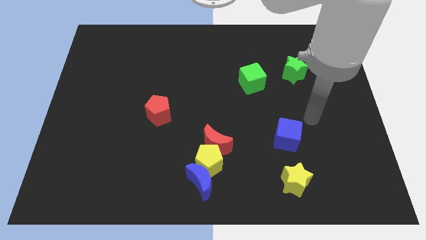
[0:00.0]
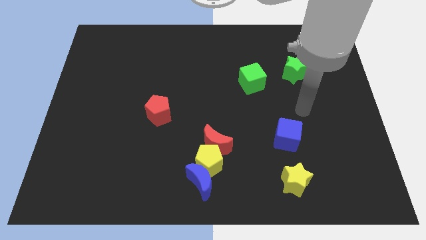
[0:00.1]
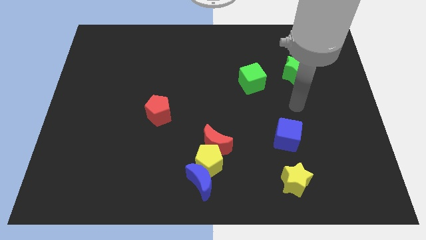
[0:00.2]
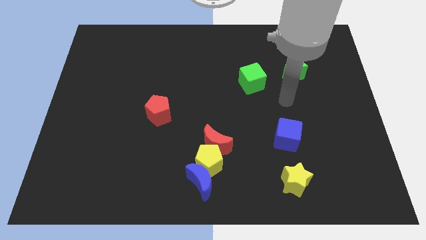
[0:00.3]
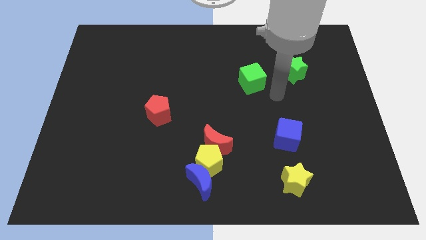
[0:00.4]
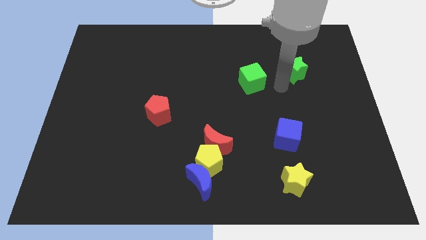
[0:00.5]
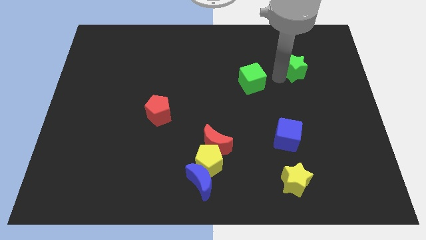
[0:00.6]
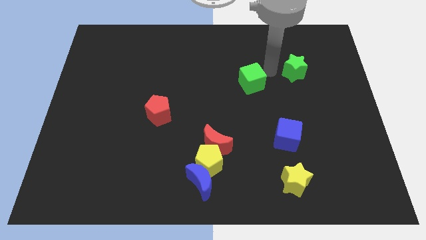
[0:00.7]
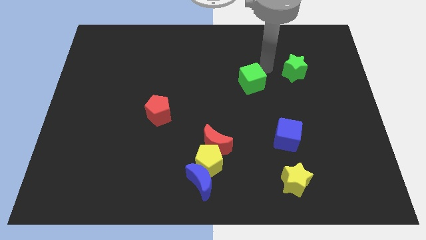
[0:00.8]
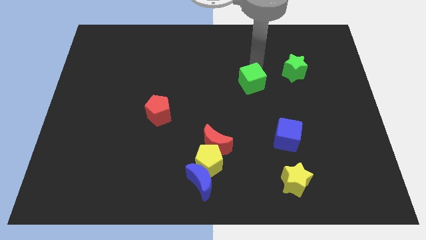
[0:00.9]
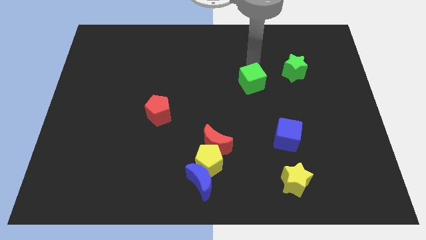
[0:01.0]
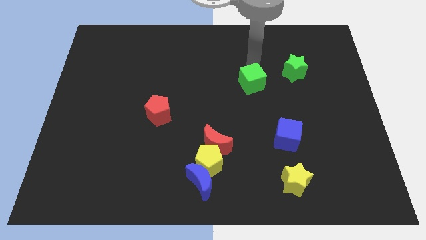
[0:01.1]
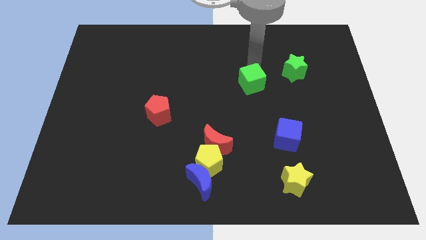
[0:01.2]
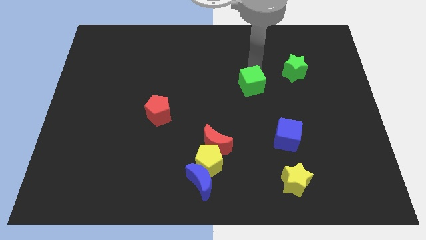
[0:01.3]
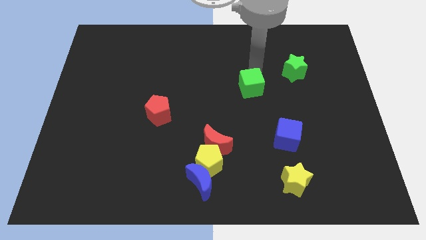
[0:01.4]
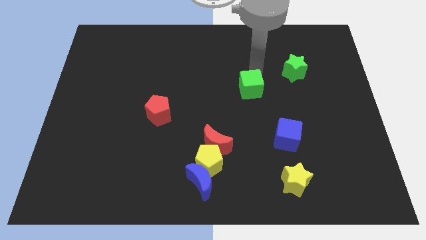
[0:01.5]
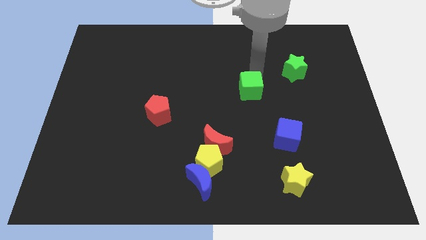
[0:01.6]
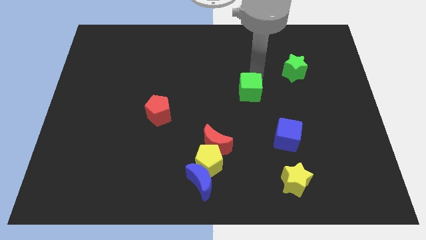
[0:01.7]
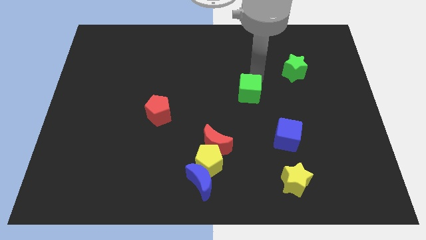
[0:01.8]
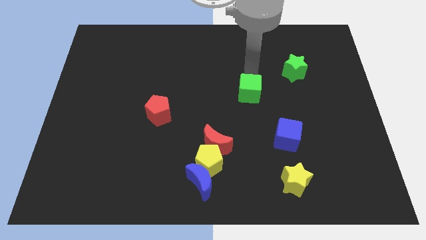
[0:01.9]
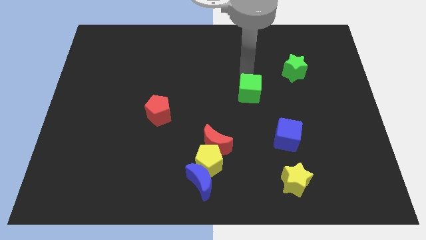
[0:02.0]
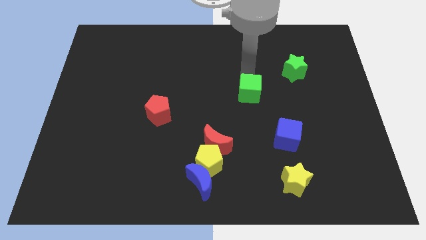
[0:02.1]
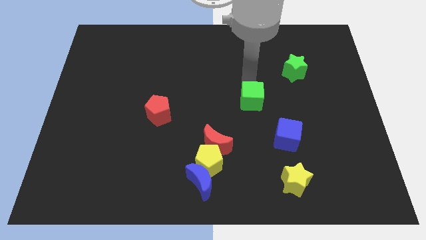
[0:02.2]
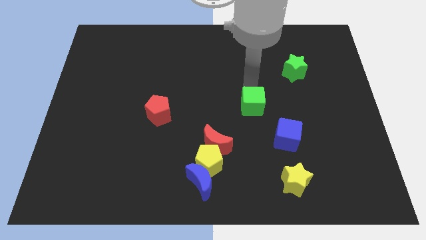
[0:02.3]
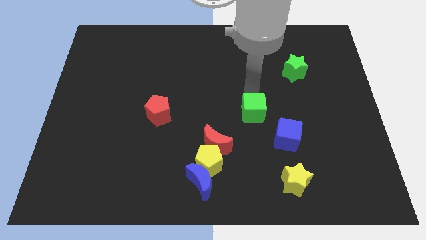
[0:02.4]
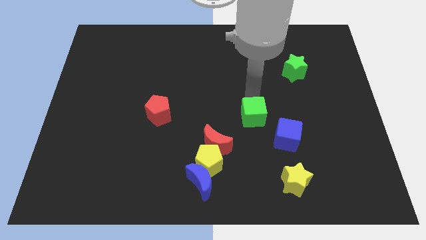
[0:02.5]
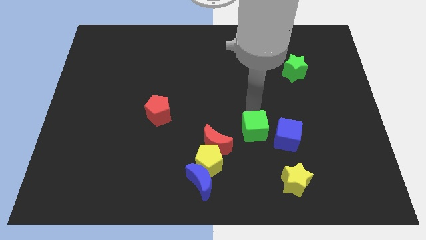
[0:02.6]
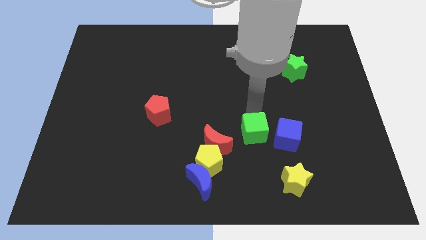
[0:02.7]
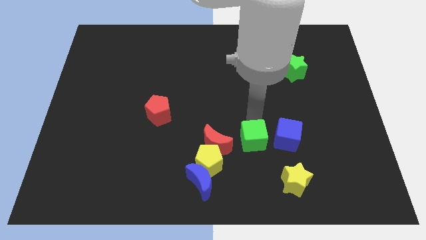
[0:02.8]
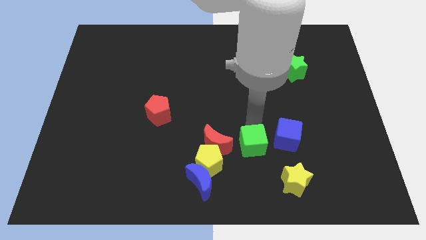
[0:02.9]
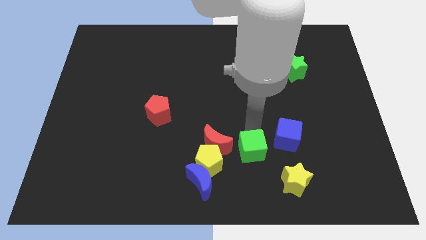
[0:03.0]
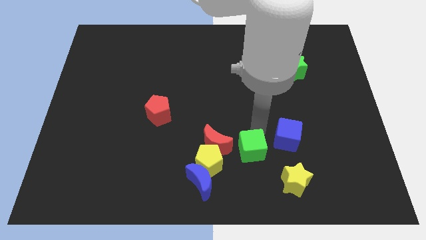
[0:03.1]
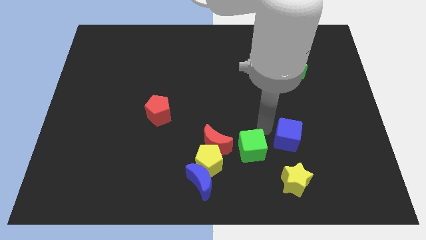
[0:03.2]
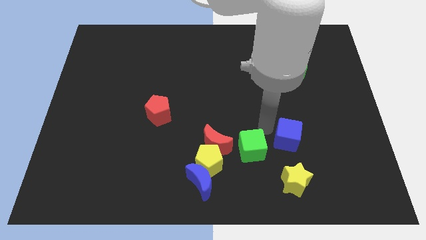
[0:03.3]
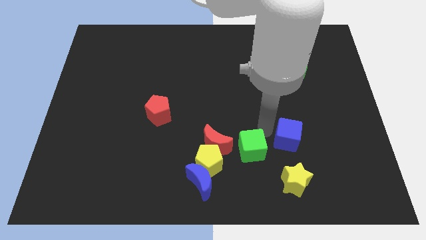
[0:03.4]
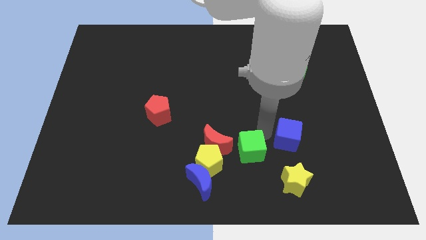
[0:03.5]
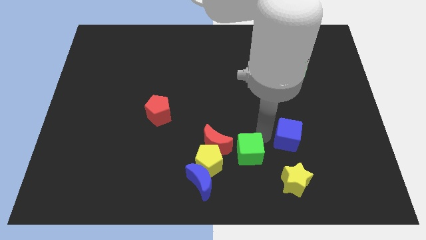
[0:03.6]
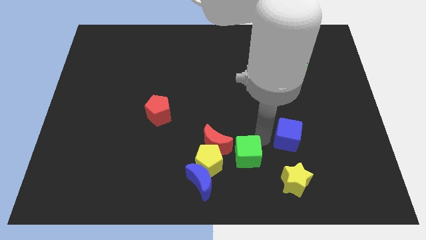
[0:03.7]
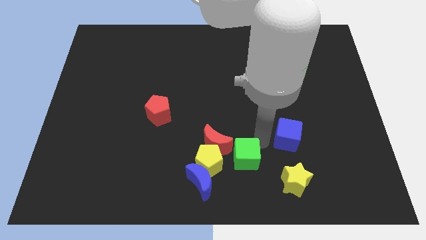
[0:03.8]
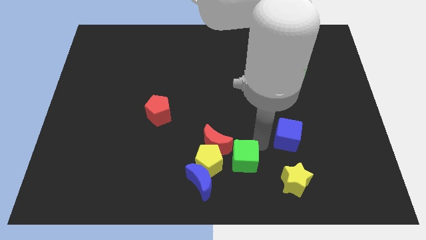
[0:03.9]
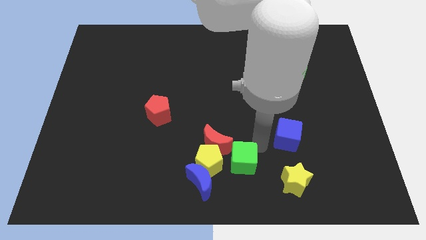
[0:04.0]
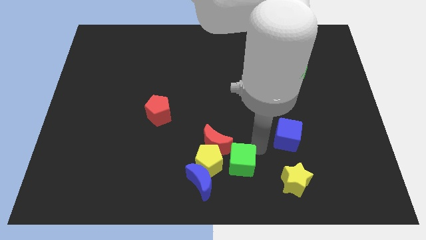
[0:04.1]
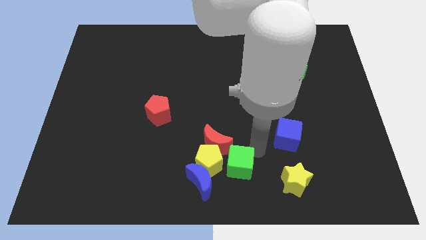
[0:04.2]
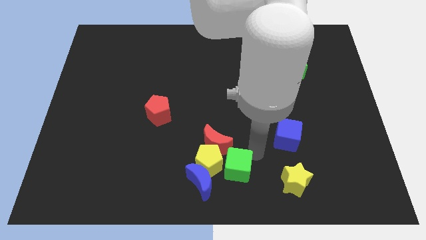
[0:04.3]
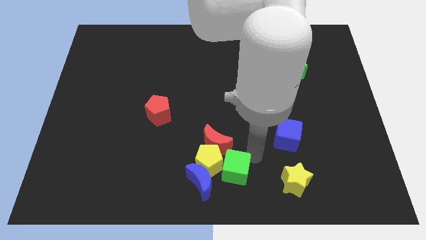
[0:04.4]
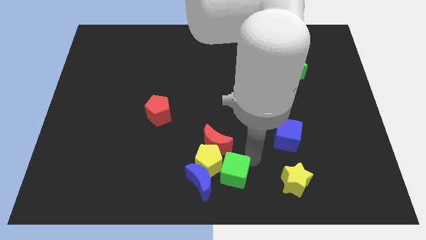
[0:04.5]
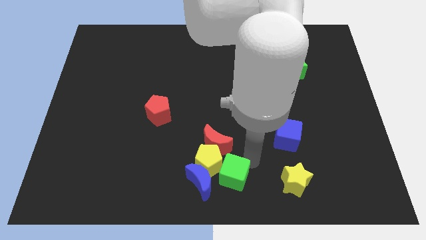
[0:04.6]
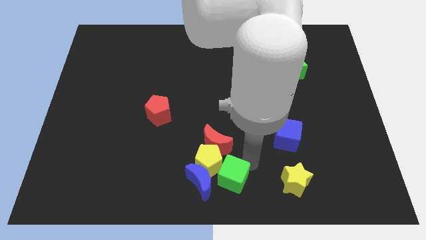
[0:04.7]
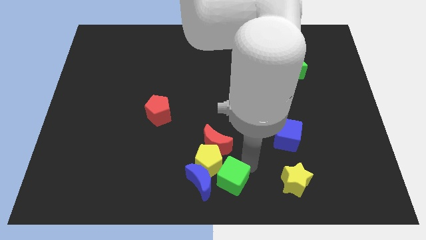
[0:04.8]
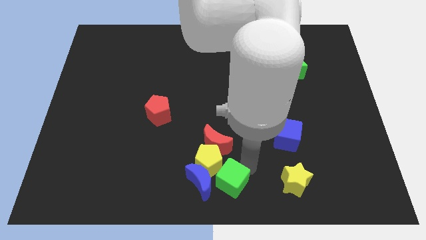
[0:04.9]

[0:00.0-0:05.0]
move the green cube next to the blue moon

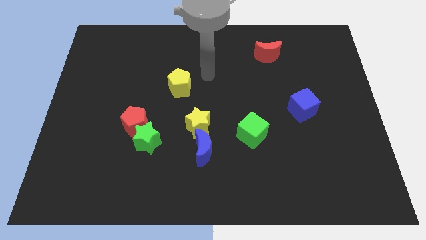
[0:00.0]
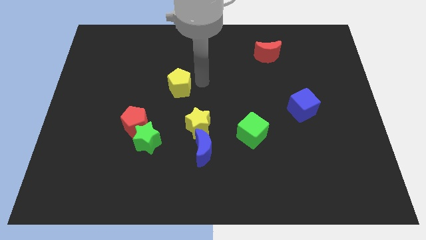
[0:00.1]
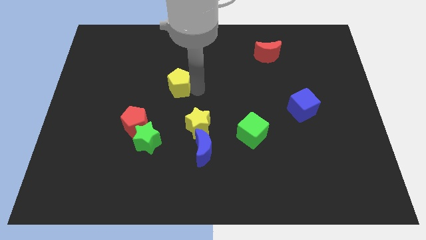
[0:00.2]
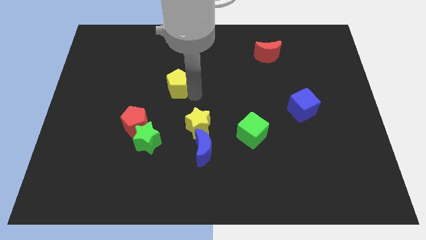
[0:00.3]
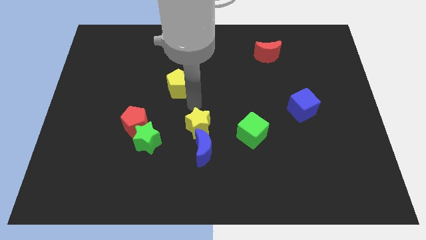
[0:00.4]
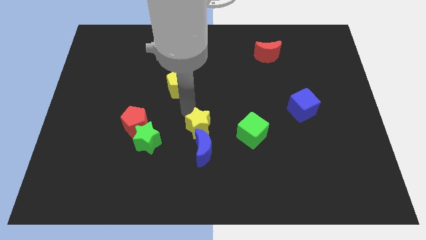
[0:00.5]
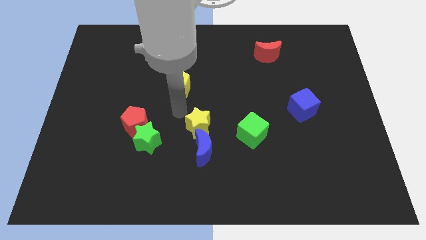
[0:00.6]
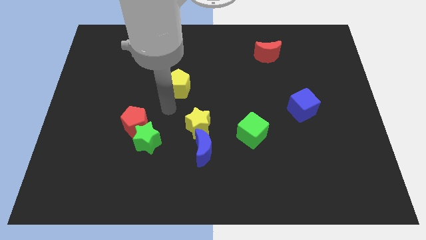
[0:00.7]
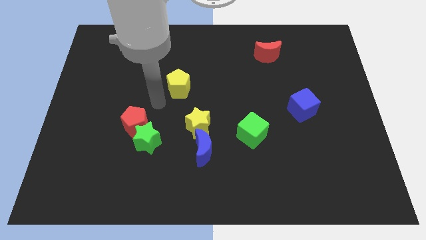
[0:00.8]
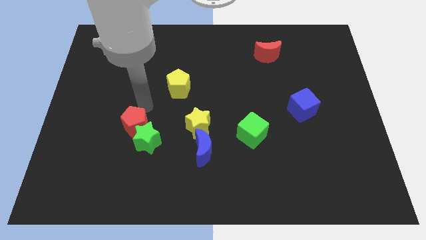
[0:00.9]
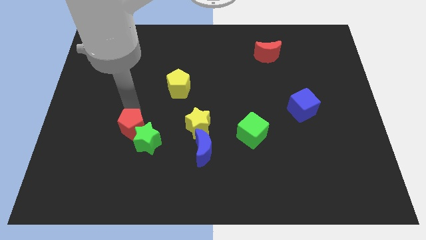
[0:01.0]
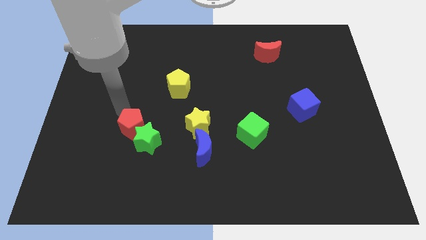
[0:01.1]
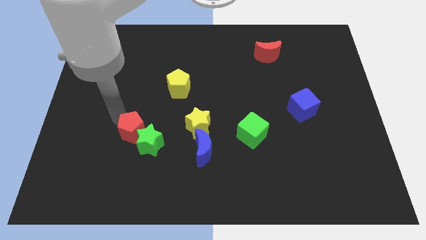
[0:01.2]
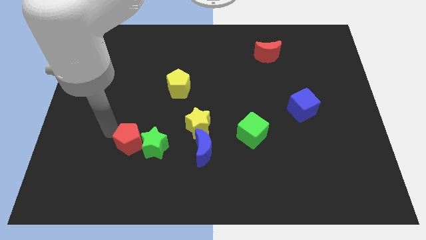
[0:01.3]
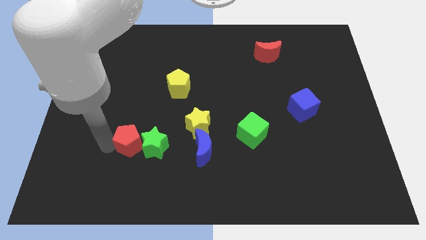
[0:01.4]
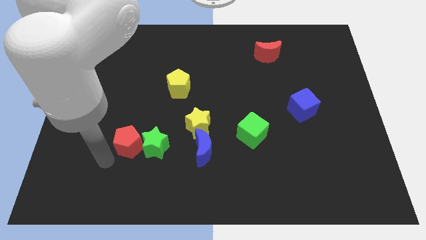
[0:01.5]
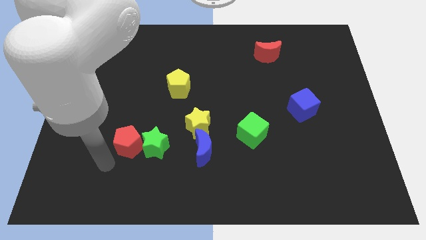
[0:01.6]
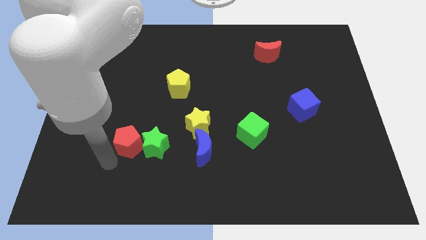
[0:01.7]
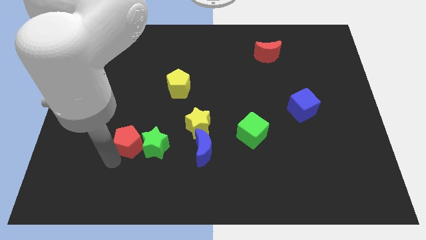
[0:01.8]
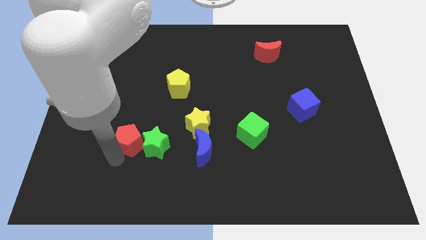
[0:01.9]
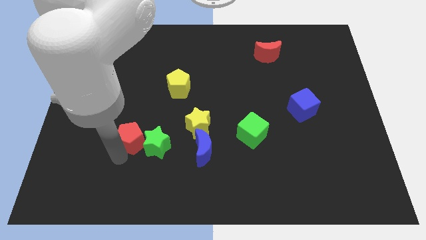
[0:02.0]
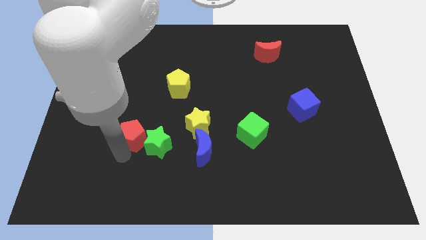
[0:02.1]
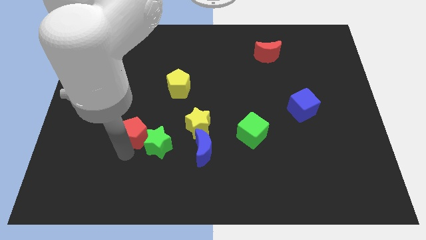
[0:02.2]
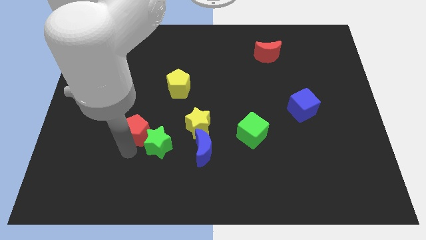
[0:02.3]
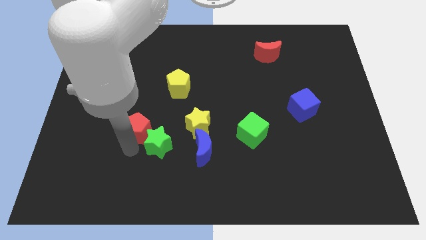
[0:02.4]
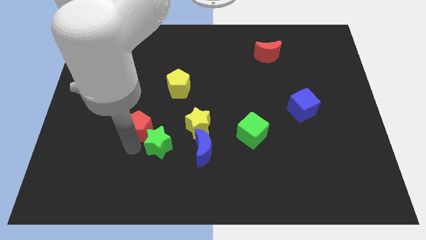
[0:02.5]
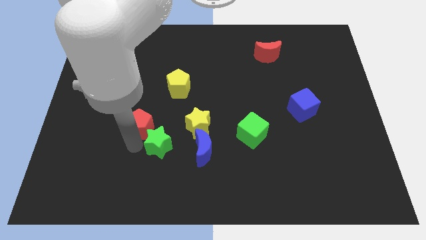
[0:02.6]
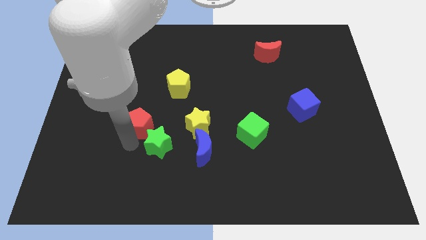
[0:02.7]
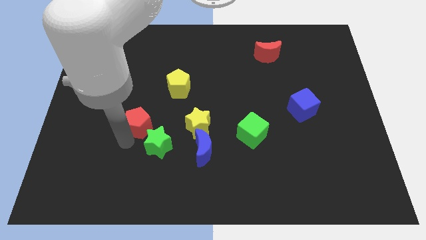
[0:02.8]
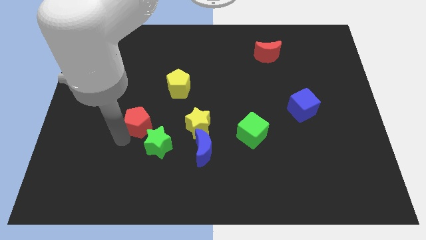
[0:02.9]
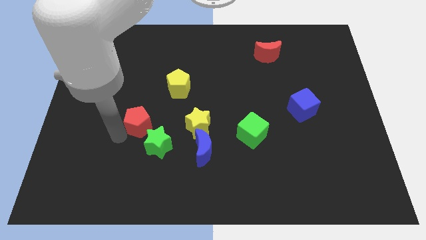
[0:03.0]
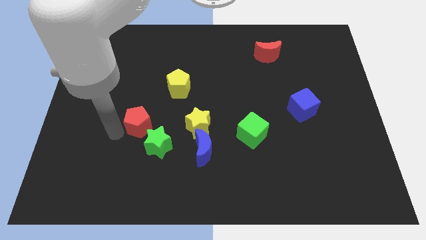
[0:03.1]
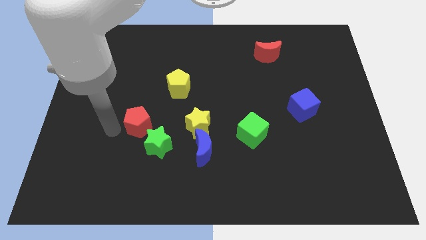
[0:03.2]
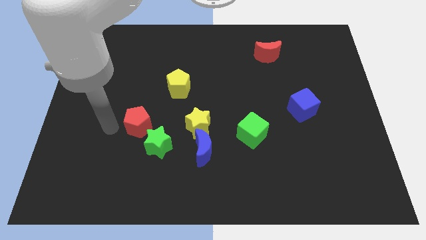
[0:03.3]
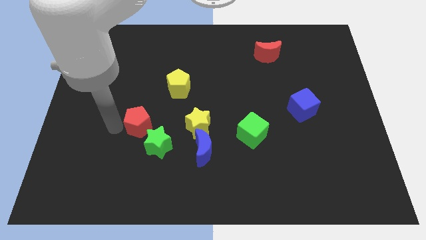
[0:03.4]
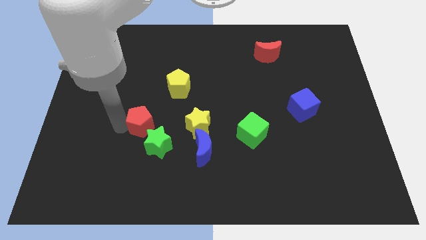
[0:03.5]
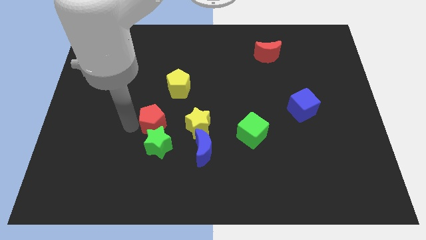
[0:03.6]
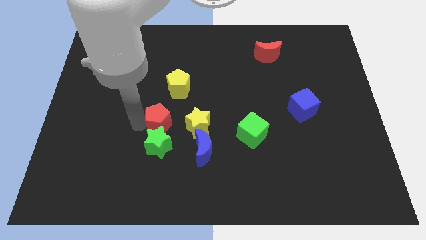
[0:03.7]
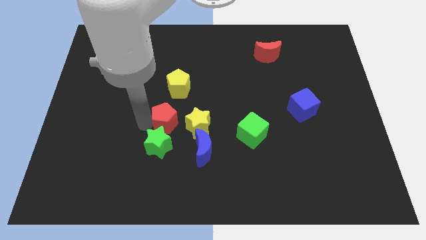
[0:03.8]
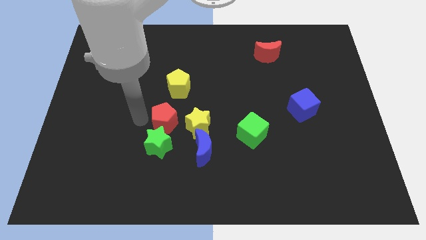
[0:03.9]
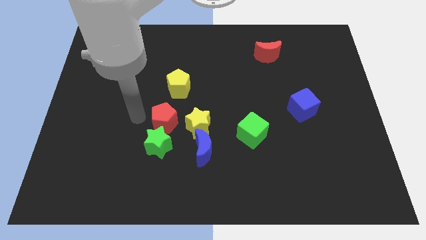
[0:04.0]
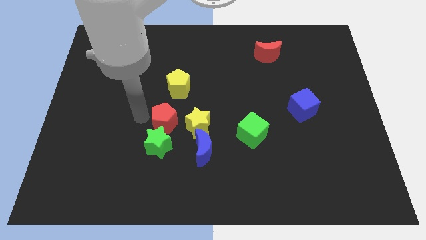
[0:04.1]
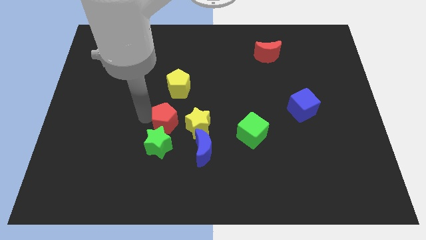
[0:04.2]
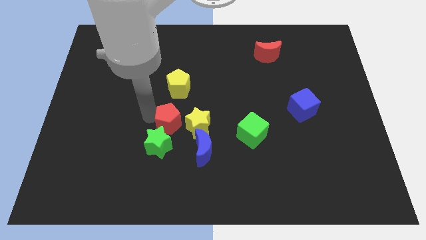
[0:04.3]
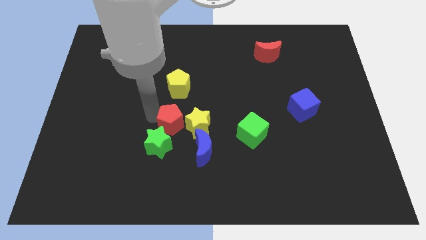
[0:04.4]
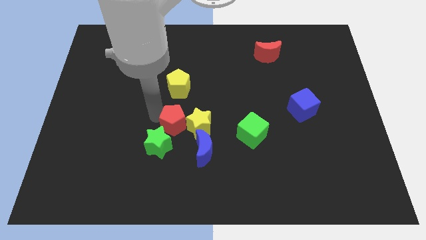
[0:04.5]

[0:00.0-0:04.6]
push the red pentagon next to the yellow star
